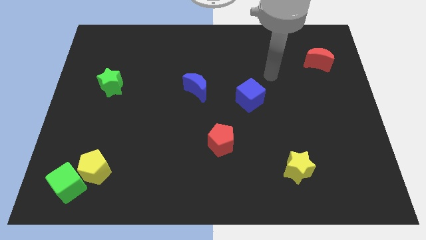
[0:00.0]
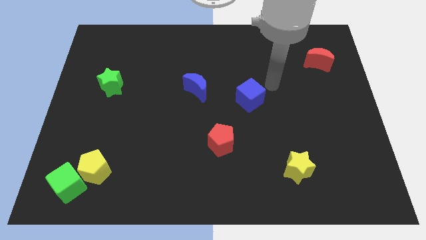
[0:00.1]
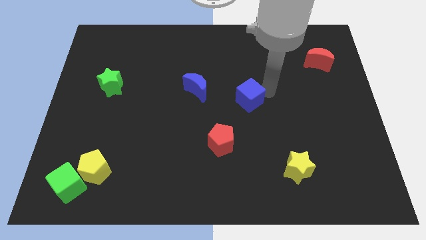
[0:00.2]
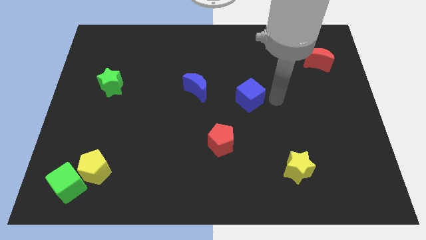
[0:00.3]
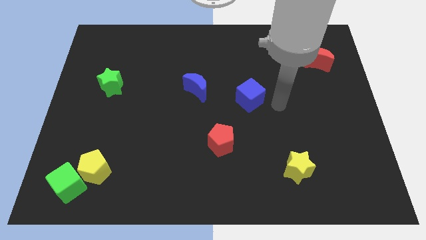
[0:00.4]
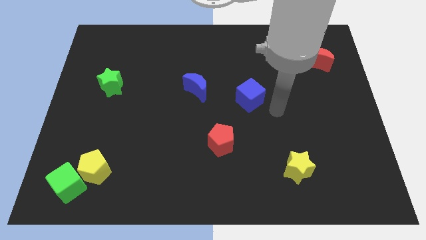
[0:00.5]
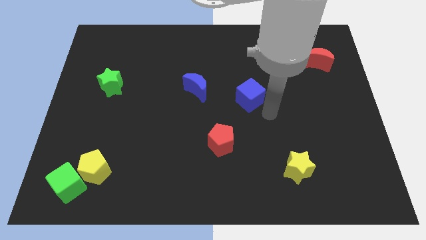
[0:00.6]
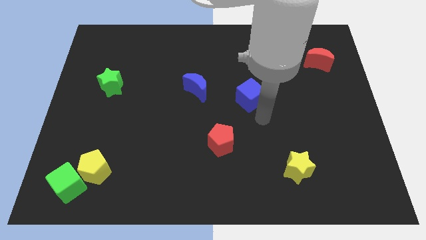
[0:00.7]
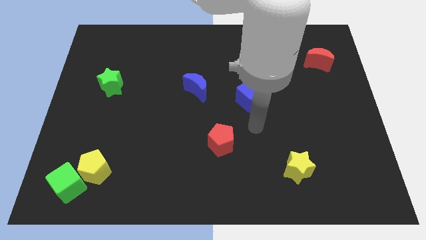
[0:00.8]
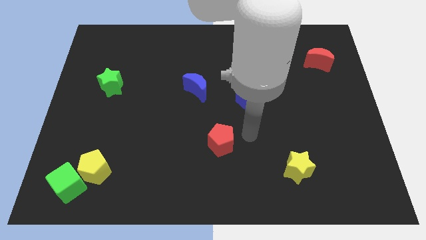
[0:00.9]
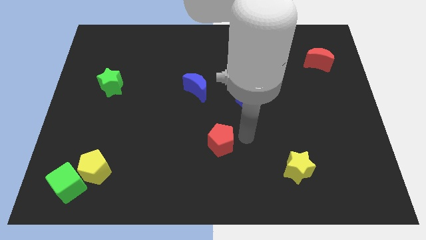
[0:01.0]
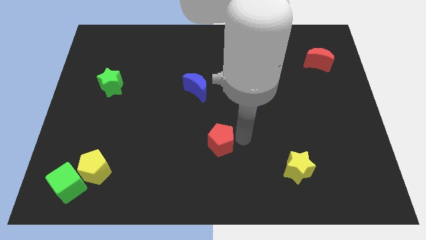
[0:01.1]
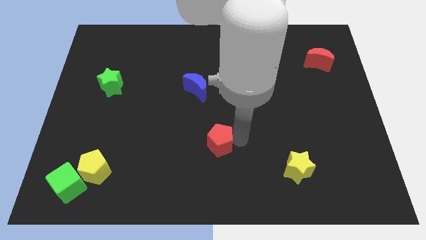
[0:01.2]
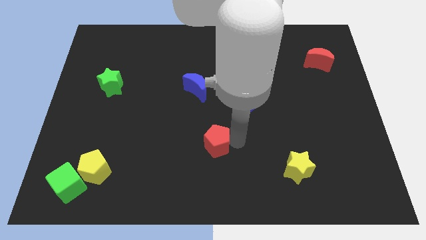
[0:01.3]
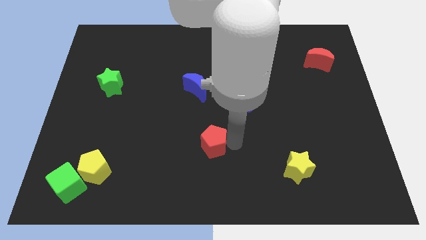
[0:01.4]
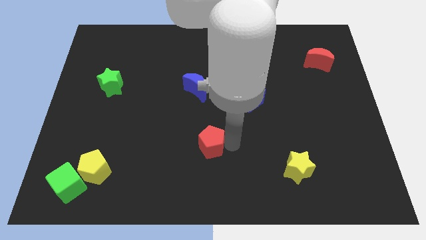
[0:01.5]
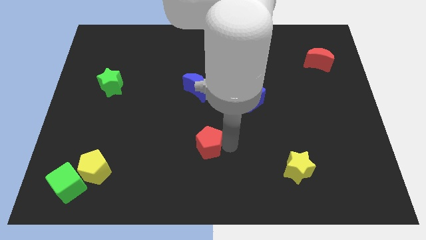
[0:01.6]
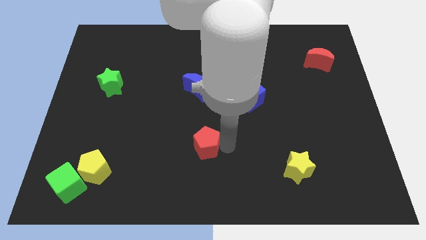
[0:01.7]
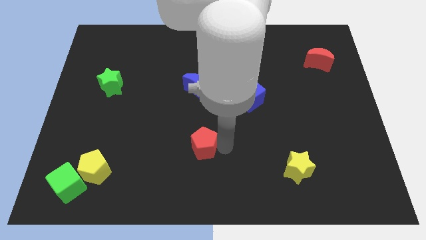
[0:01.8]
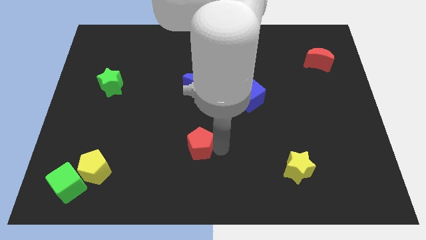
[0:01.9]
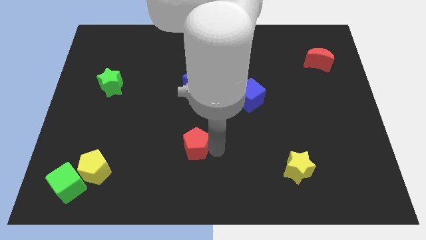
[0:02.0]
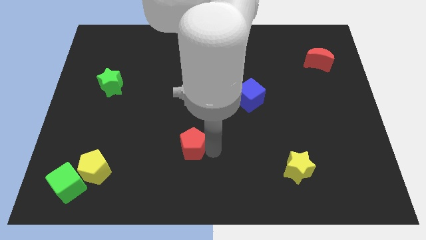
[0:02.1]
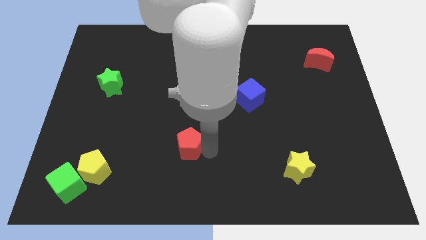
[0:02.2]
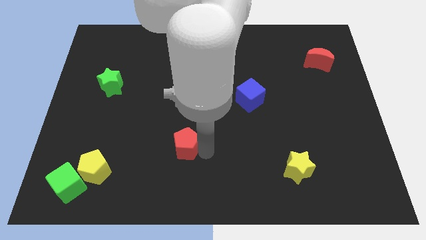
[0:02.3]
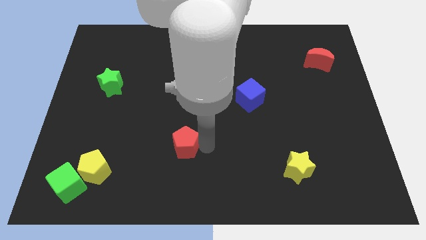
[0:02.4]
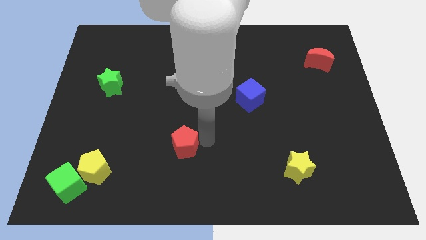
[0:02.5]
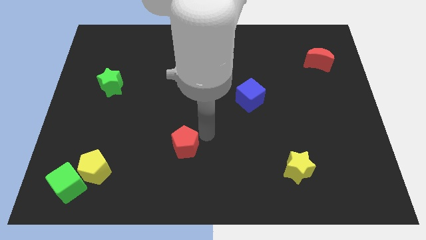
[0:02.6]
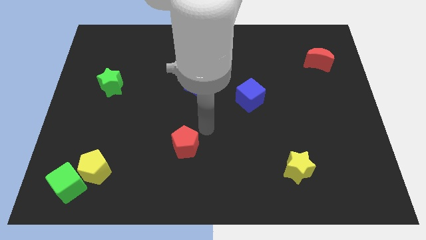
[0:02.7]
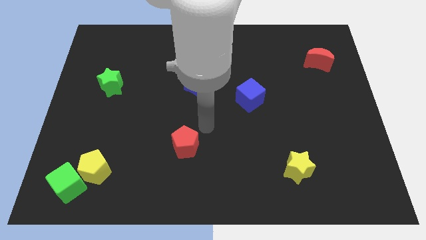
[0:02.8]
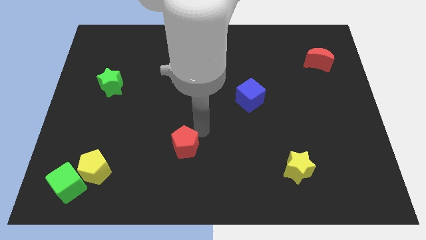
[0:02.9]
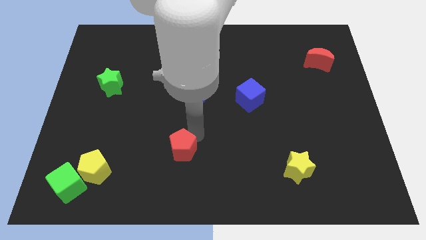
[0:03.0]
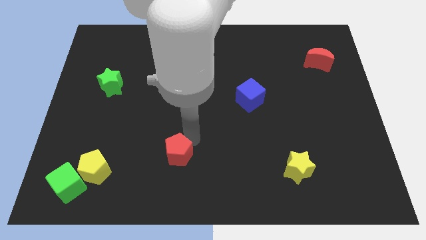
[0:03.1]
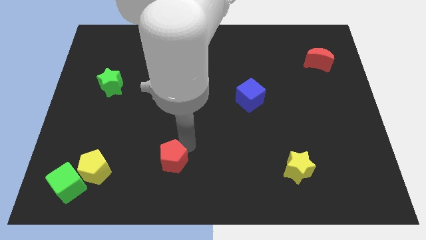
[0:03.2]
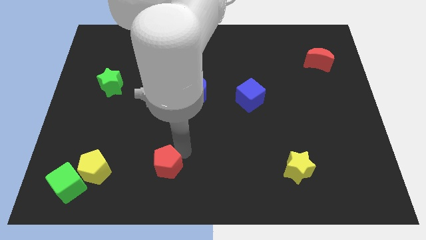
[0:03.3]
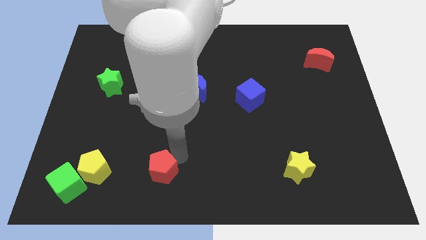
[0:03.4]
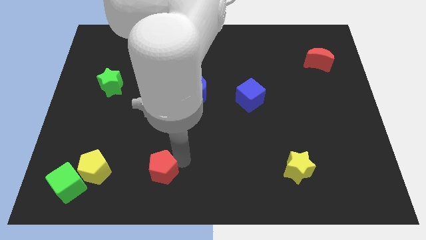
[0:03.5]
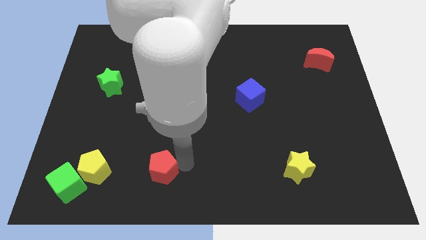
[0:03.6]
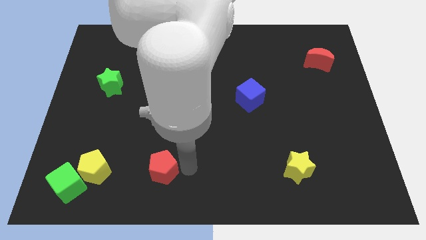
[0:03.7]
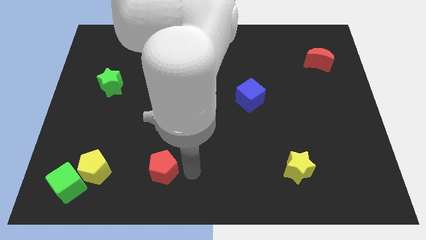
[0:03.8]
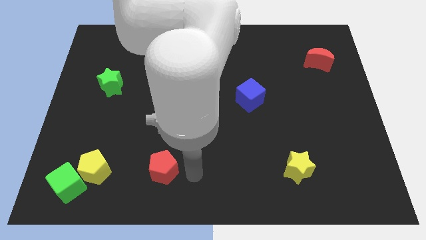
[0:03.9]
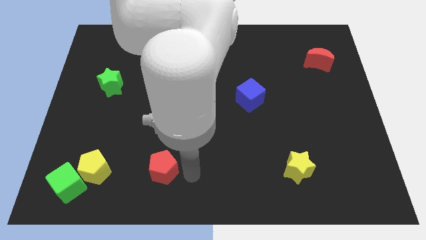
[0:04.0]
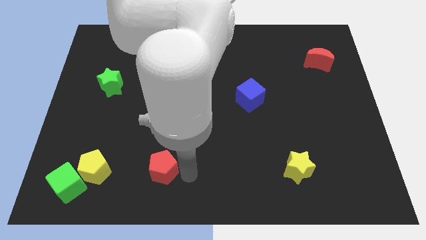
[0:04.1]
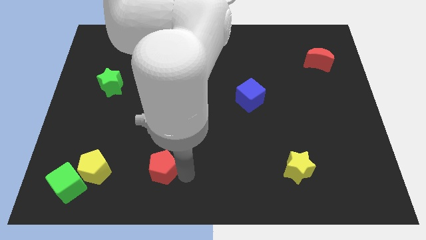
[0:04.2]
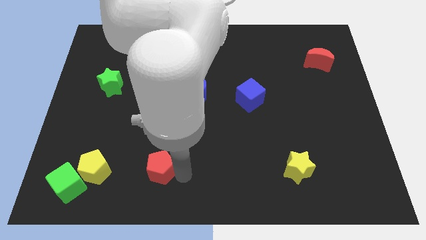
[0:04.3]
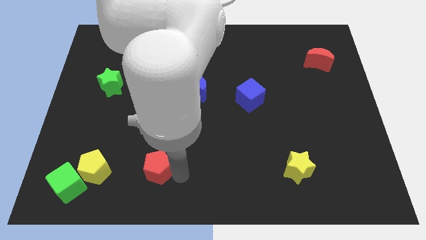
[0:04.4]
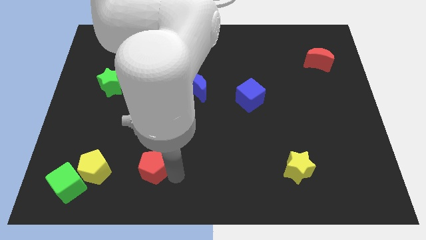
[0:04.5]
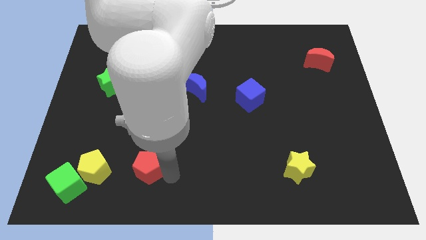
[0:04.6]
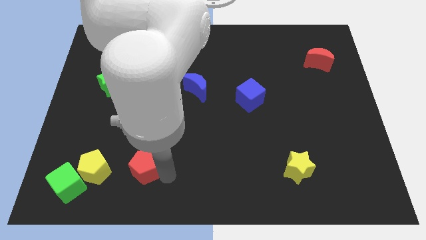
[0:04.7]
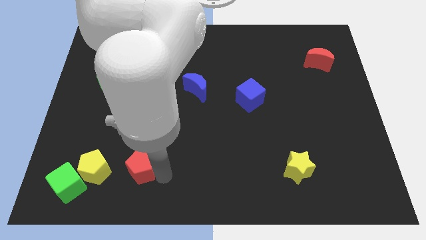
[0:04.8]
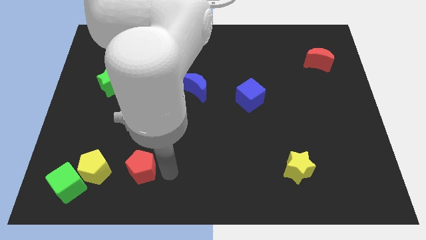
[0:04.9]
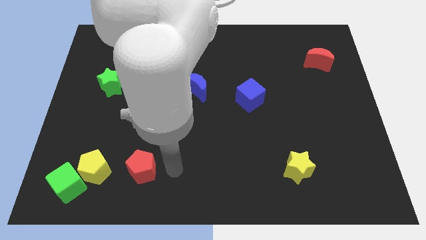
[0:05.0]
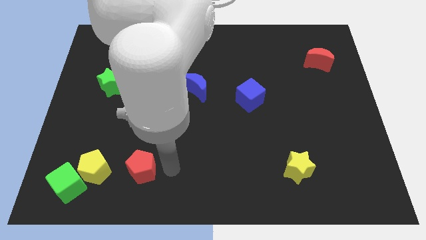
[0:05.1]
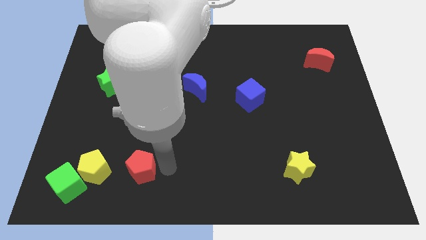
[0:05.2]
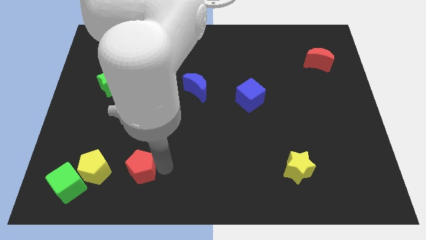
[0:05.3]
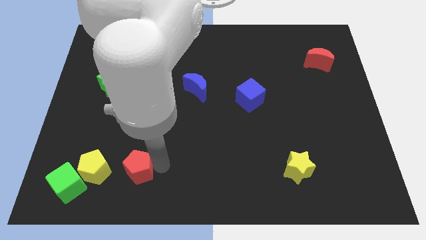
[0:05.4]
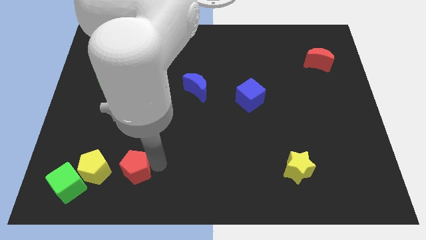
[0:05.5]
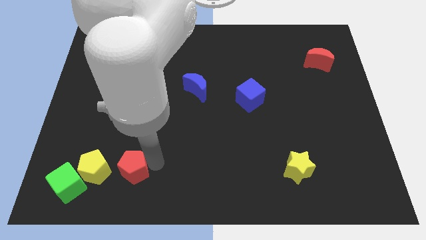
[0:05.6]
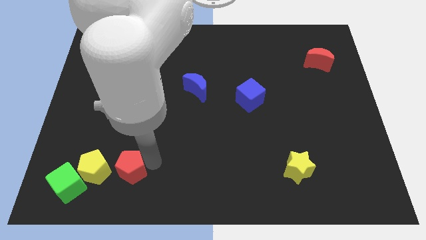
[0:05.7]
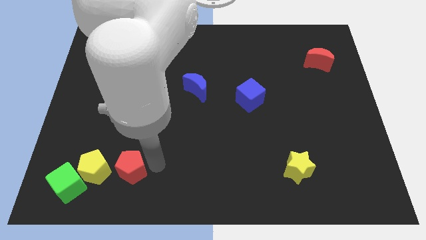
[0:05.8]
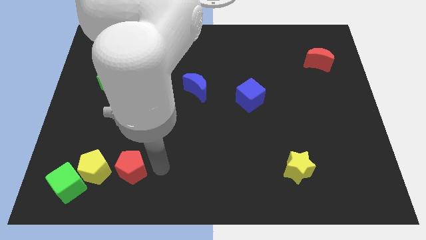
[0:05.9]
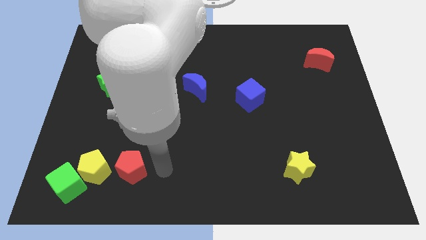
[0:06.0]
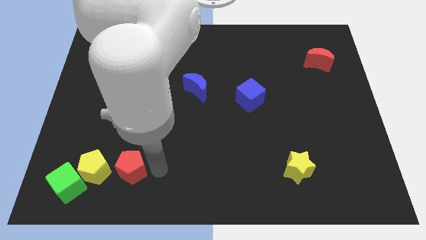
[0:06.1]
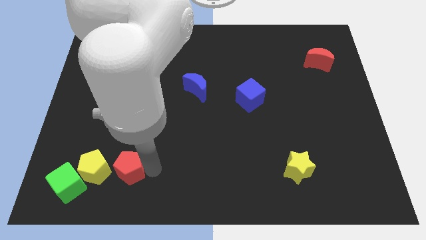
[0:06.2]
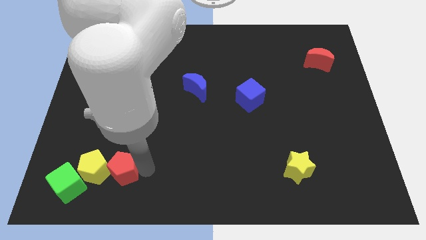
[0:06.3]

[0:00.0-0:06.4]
slide the red pentagon close to the yellow pentagon

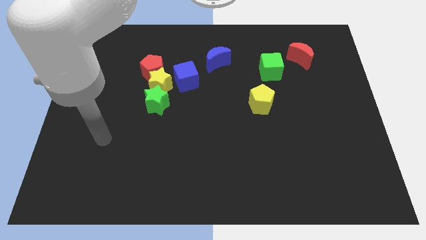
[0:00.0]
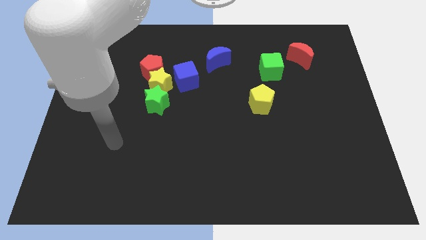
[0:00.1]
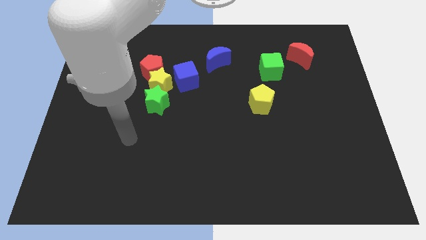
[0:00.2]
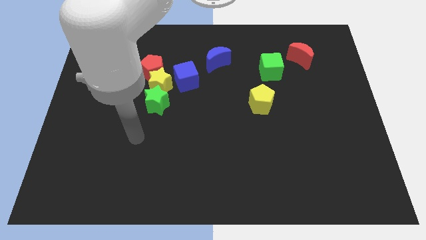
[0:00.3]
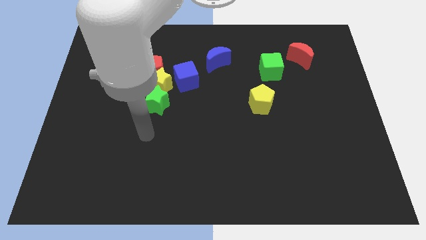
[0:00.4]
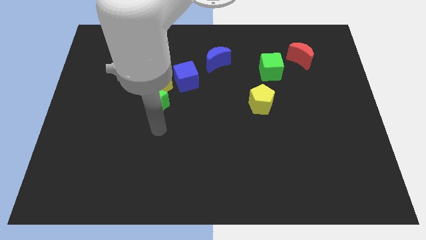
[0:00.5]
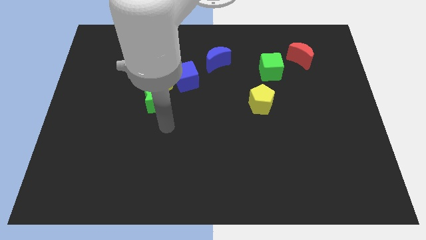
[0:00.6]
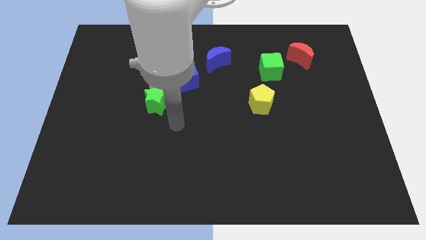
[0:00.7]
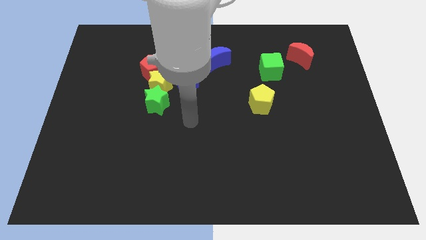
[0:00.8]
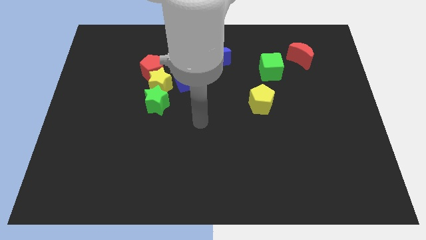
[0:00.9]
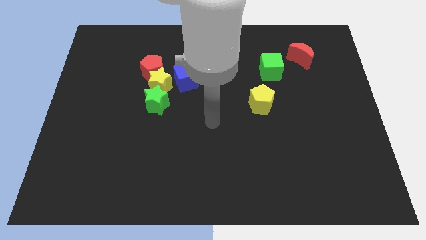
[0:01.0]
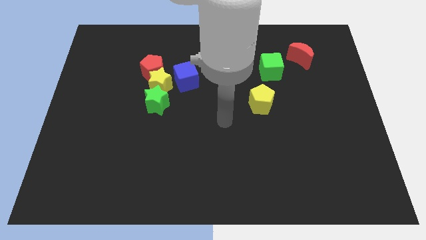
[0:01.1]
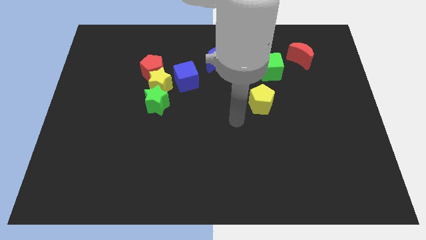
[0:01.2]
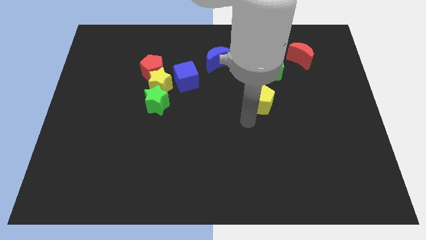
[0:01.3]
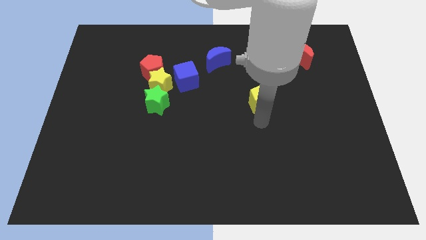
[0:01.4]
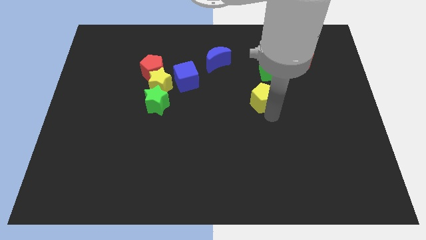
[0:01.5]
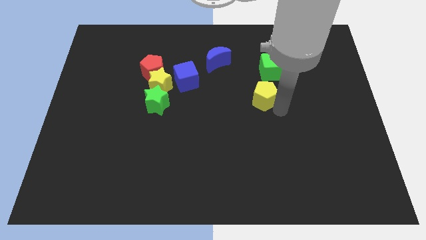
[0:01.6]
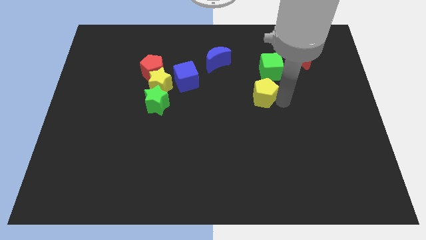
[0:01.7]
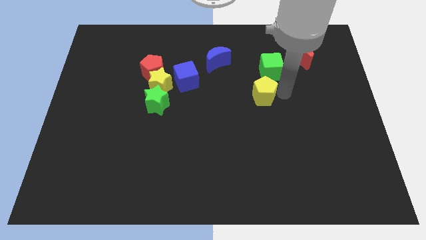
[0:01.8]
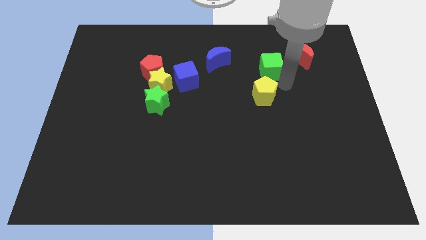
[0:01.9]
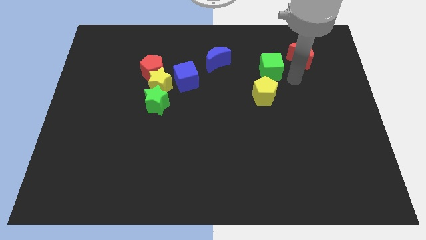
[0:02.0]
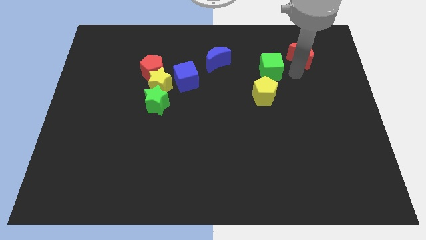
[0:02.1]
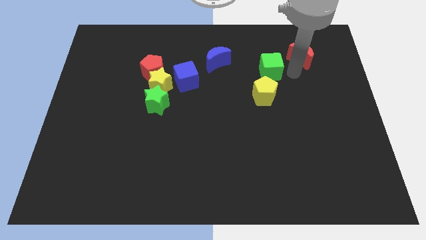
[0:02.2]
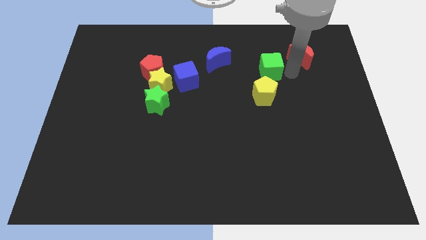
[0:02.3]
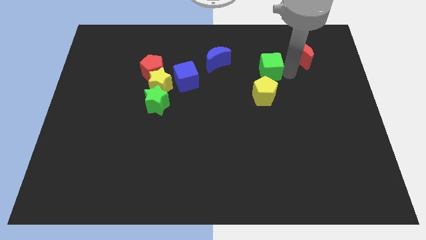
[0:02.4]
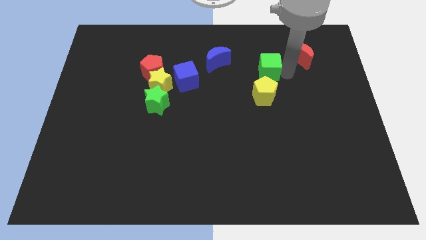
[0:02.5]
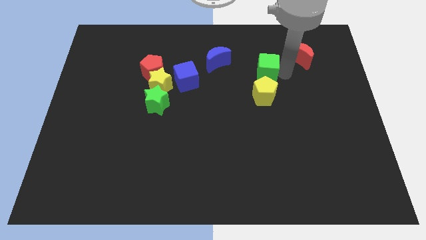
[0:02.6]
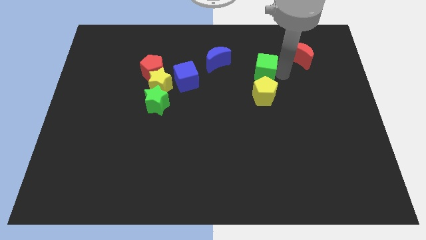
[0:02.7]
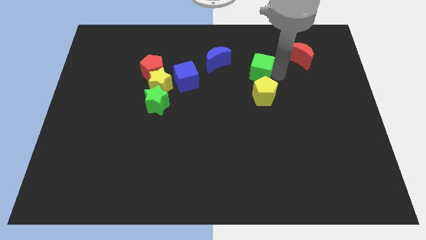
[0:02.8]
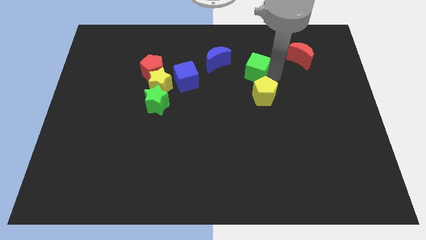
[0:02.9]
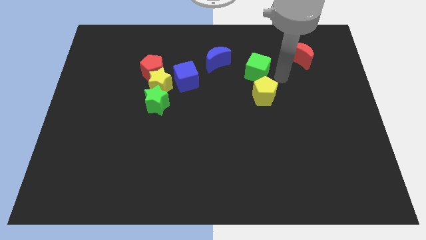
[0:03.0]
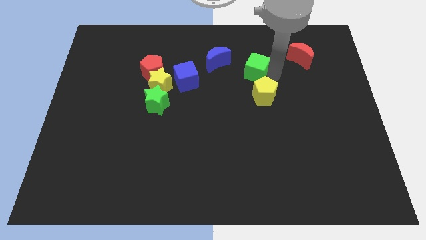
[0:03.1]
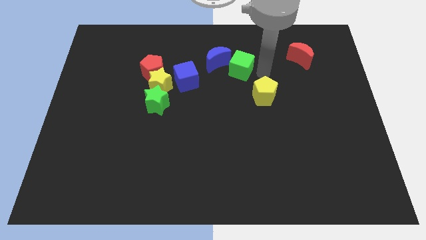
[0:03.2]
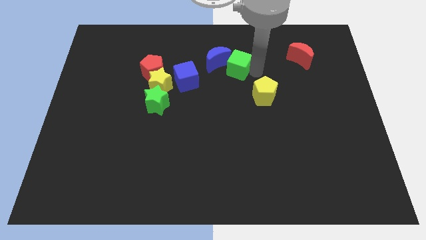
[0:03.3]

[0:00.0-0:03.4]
slide the green cube close to the blue moon
